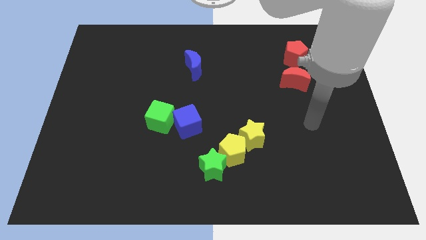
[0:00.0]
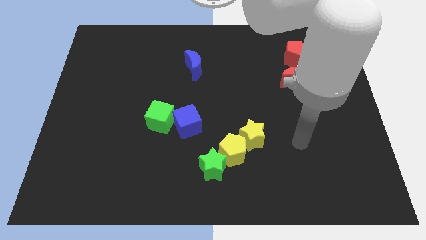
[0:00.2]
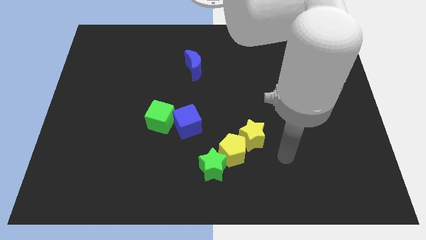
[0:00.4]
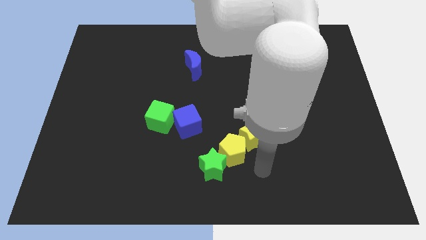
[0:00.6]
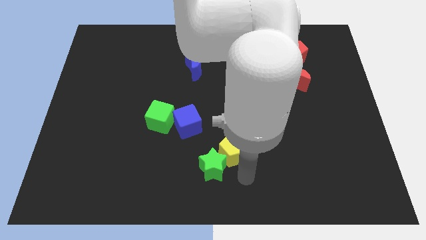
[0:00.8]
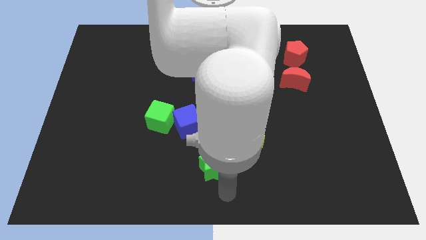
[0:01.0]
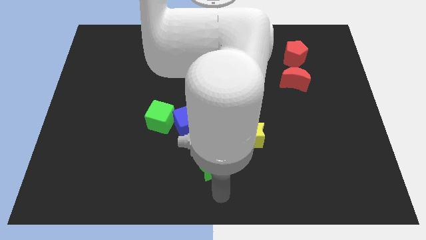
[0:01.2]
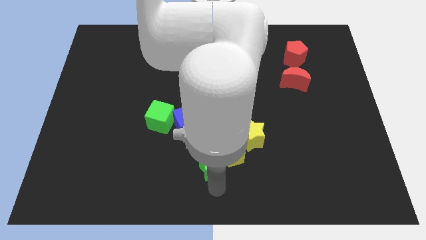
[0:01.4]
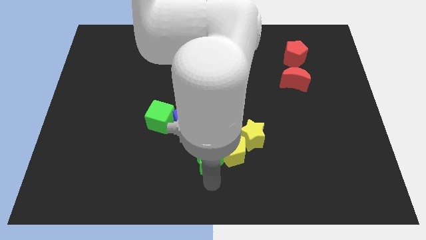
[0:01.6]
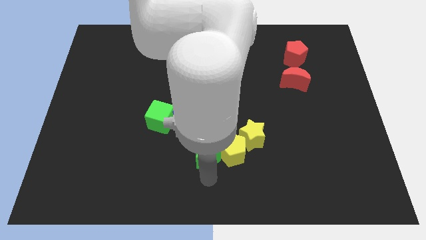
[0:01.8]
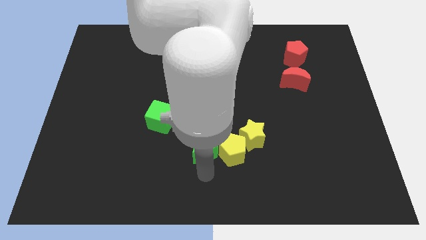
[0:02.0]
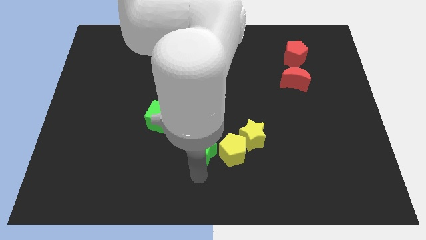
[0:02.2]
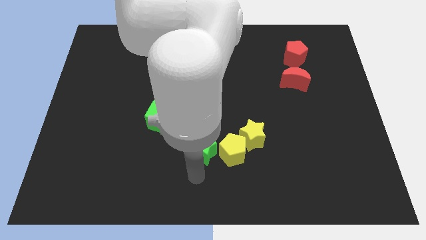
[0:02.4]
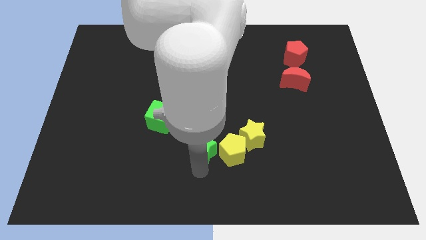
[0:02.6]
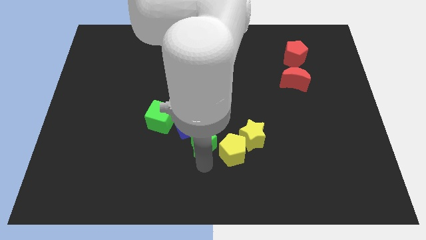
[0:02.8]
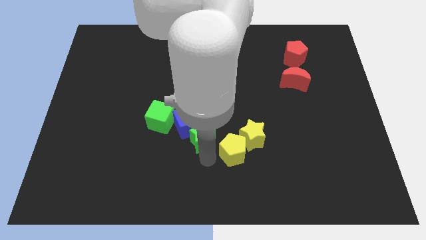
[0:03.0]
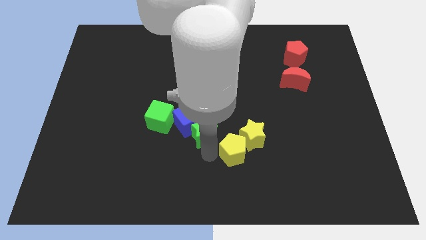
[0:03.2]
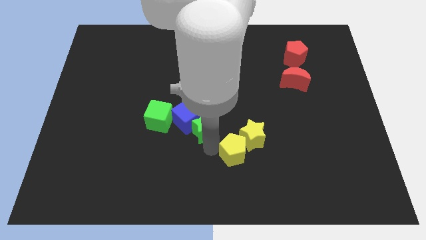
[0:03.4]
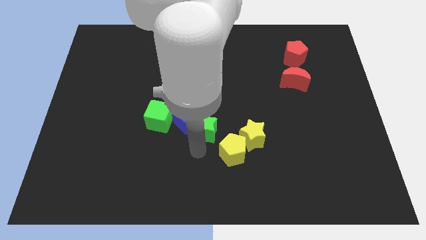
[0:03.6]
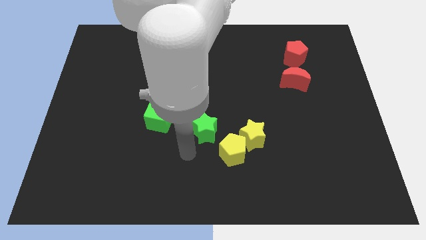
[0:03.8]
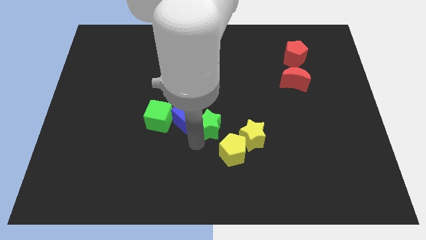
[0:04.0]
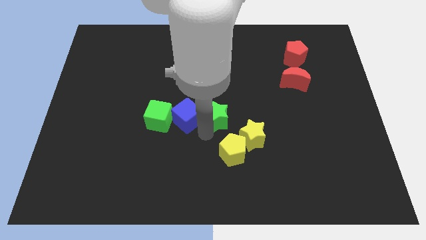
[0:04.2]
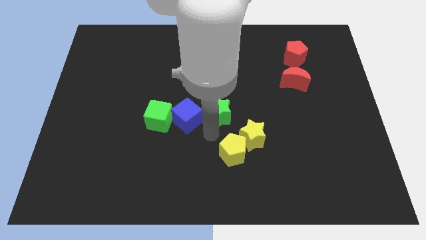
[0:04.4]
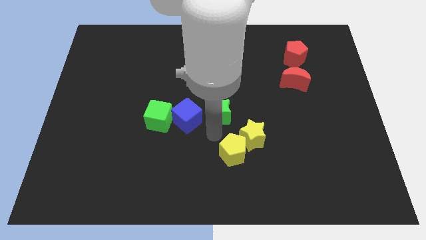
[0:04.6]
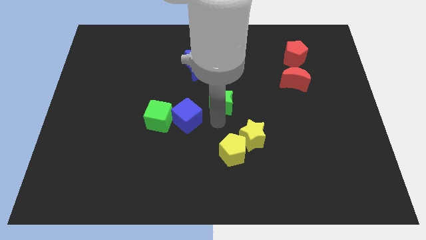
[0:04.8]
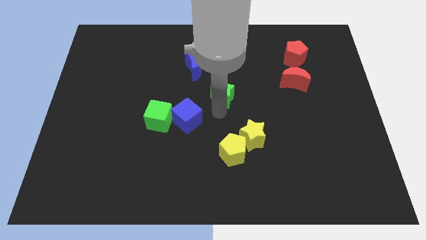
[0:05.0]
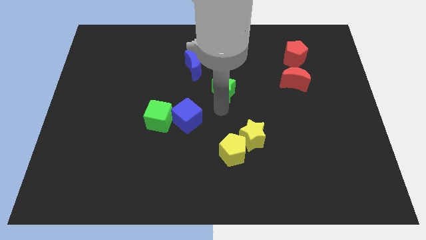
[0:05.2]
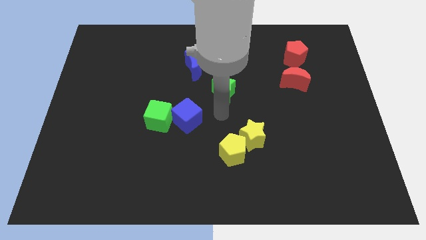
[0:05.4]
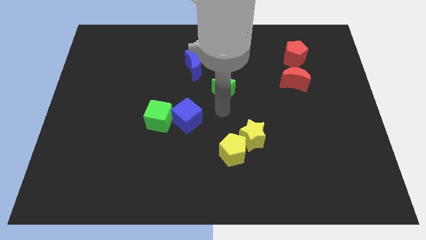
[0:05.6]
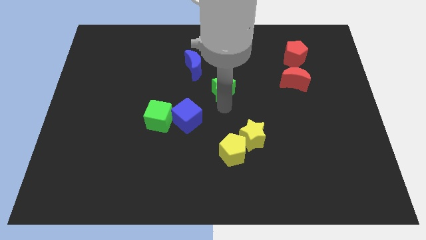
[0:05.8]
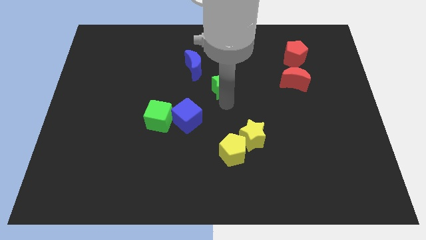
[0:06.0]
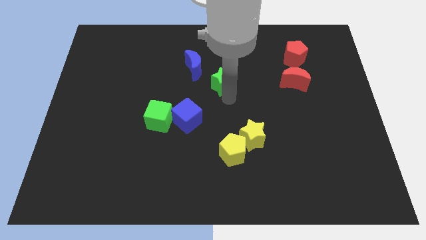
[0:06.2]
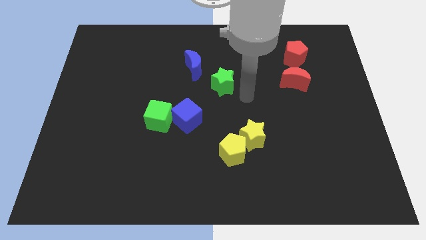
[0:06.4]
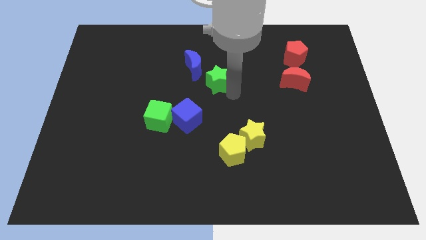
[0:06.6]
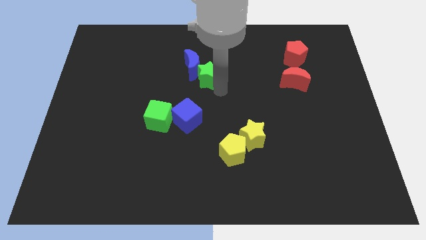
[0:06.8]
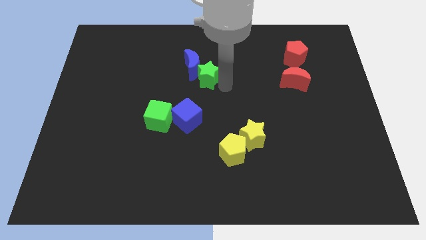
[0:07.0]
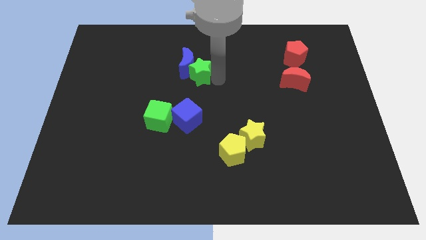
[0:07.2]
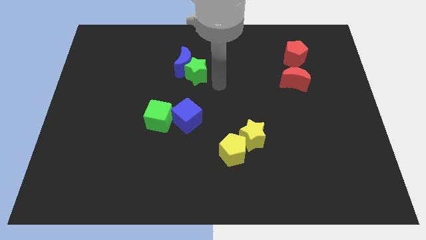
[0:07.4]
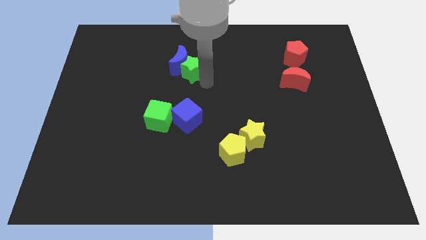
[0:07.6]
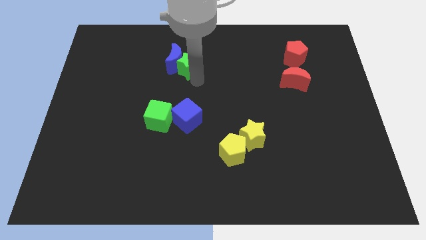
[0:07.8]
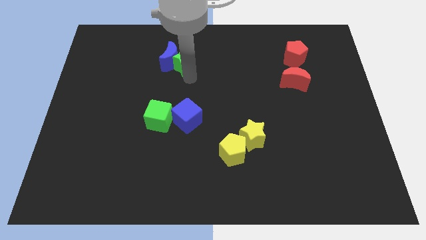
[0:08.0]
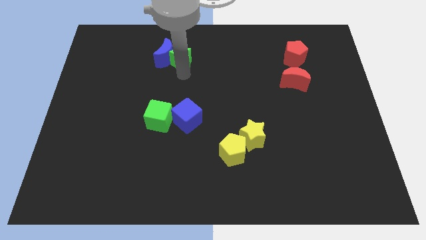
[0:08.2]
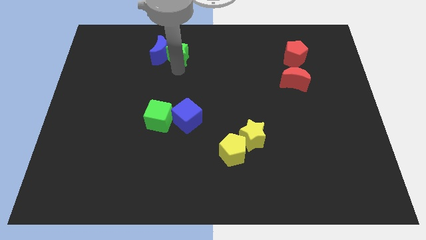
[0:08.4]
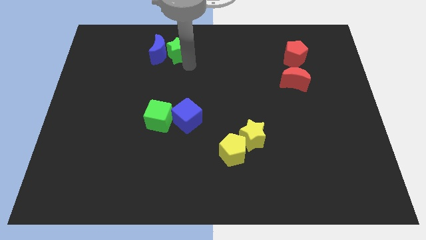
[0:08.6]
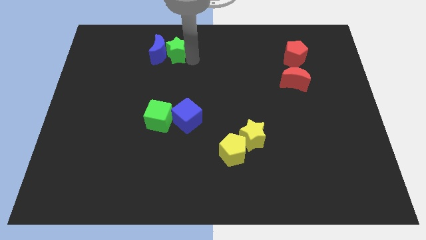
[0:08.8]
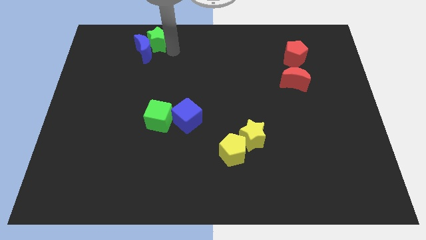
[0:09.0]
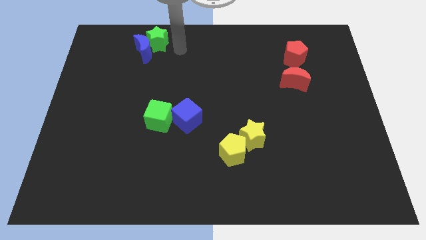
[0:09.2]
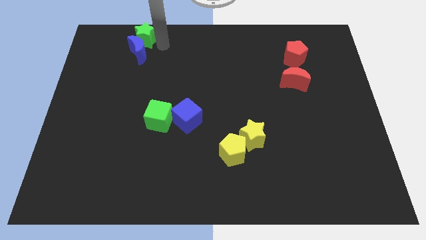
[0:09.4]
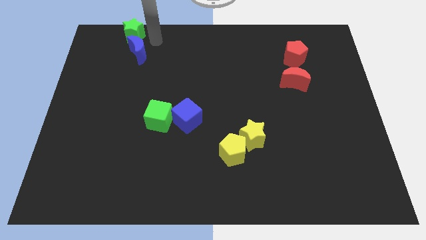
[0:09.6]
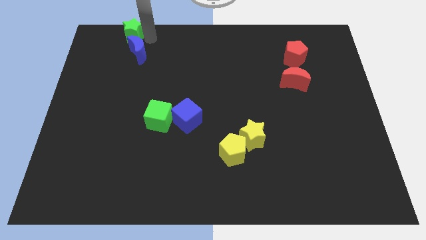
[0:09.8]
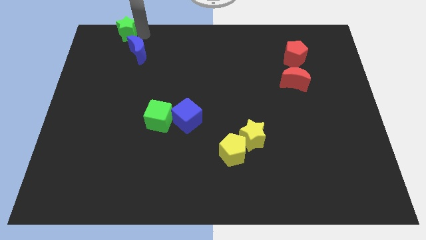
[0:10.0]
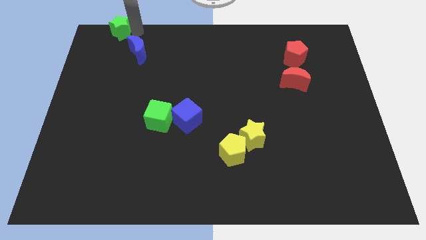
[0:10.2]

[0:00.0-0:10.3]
push the green star to the top left corner

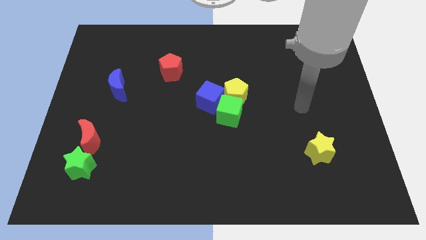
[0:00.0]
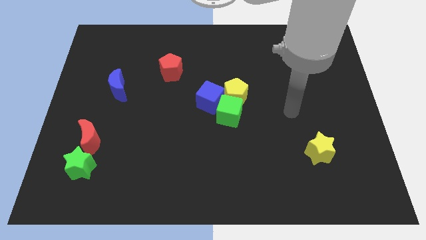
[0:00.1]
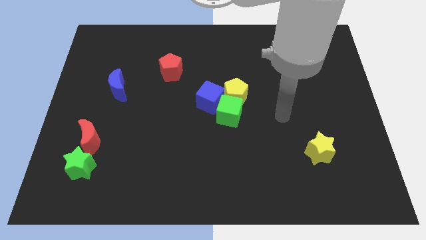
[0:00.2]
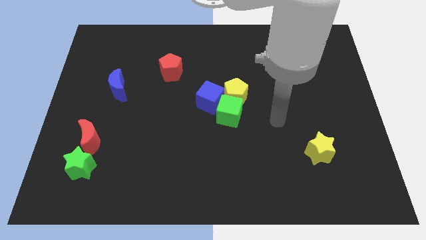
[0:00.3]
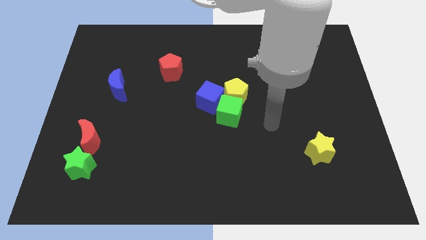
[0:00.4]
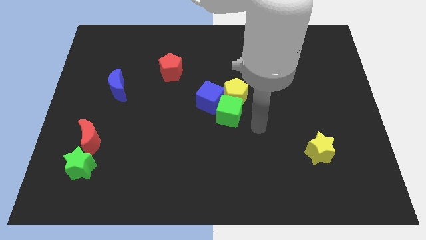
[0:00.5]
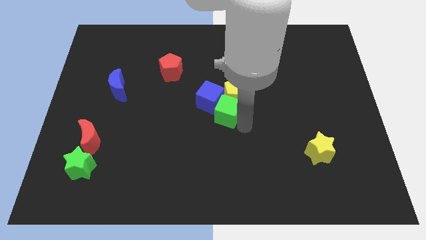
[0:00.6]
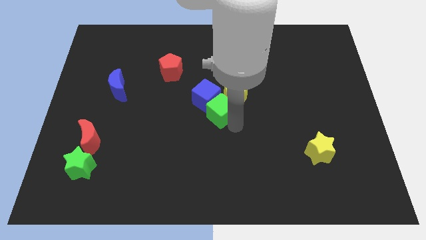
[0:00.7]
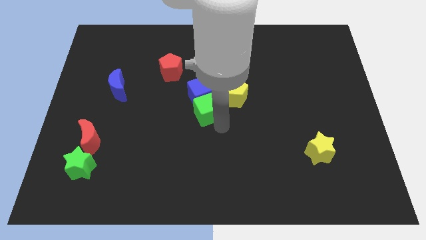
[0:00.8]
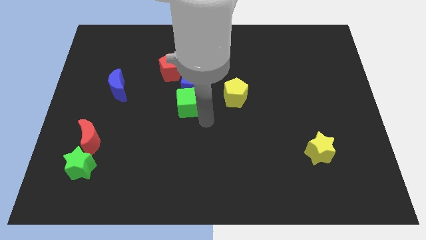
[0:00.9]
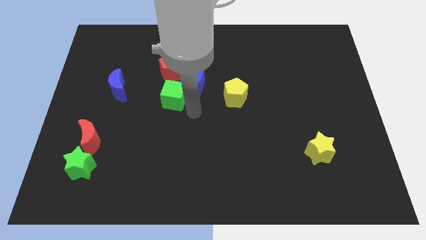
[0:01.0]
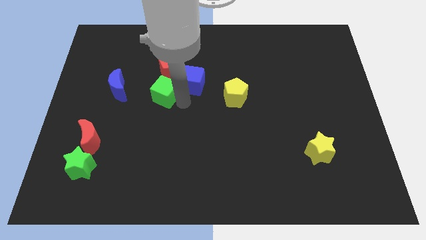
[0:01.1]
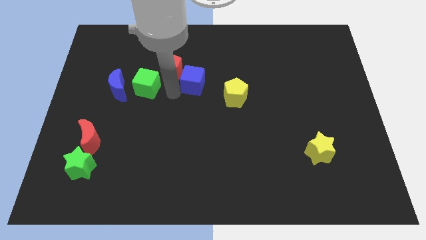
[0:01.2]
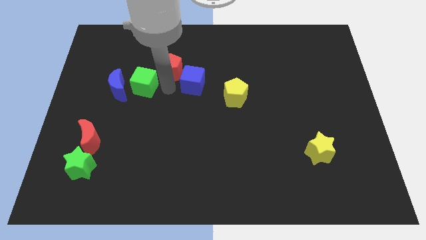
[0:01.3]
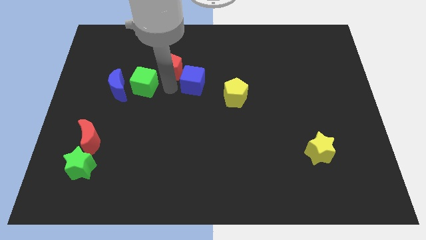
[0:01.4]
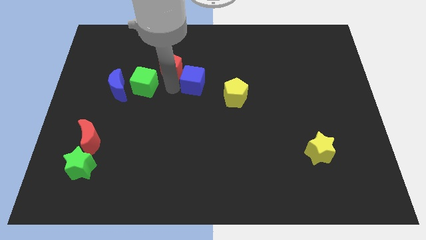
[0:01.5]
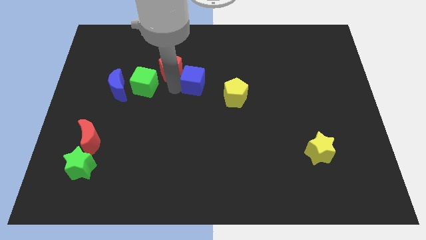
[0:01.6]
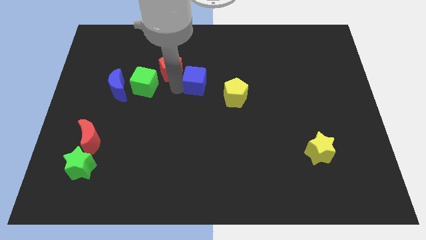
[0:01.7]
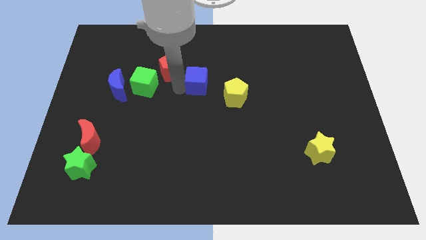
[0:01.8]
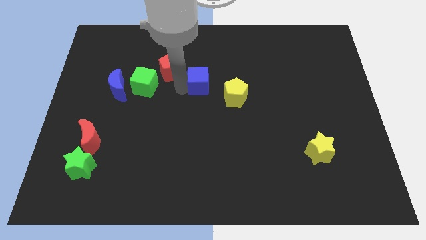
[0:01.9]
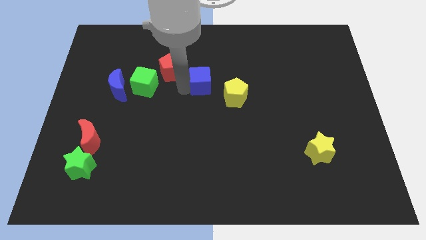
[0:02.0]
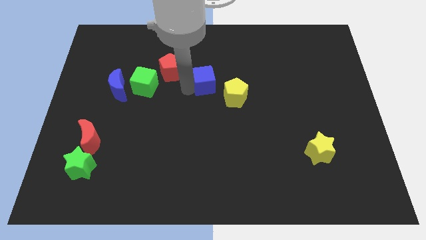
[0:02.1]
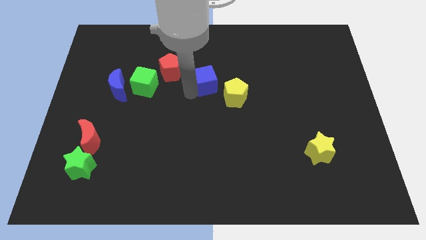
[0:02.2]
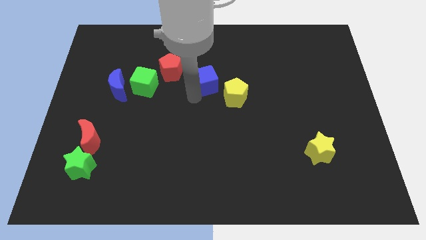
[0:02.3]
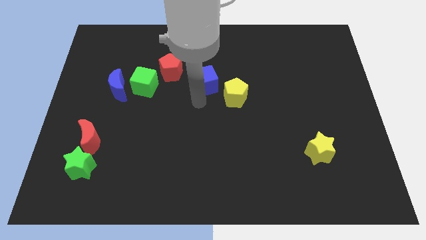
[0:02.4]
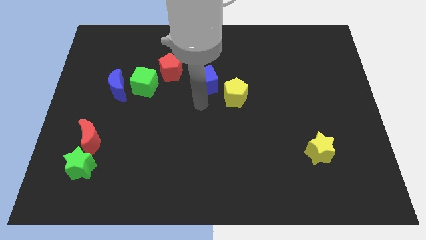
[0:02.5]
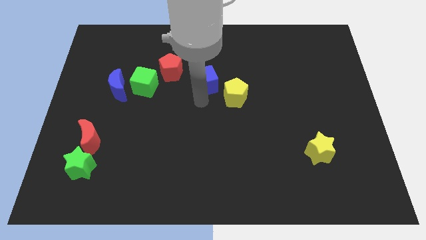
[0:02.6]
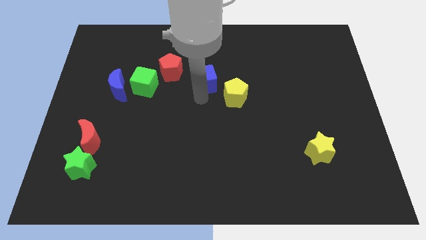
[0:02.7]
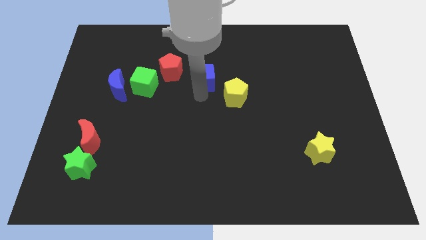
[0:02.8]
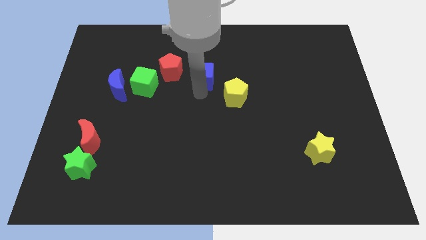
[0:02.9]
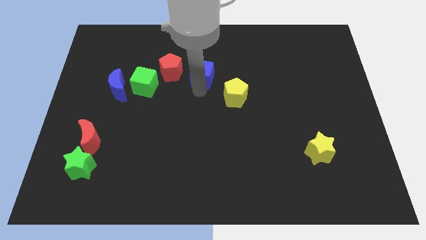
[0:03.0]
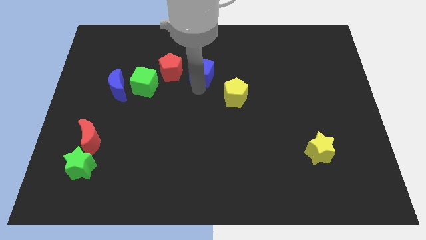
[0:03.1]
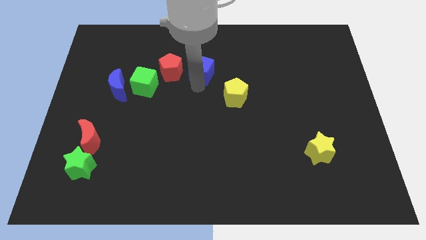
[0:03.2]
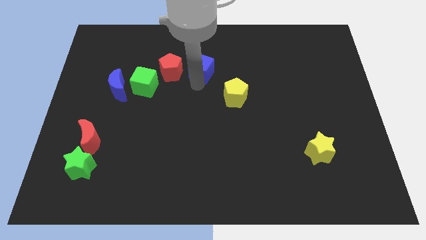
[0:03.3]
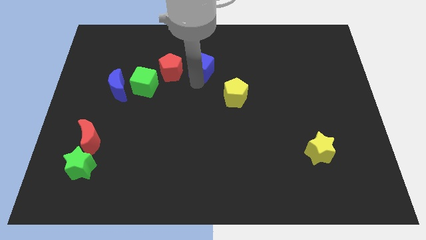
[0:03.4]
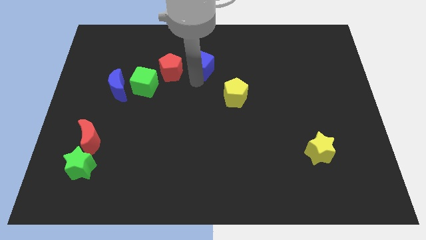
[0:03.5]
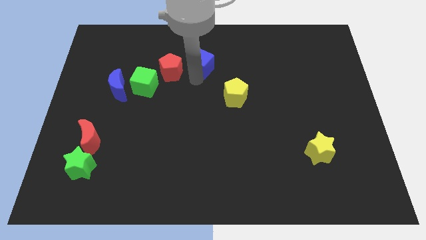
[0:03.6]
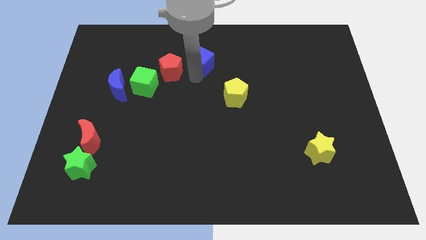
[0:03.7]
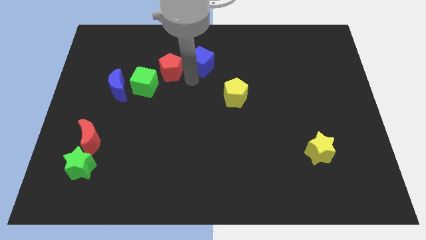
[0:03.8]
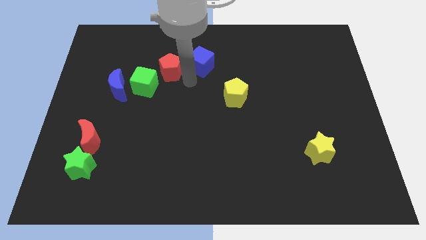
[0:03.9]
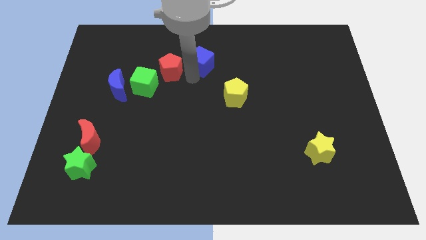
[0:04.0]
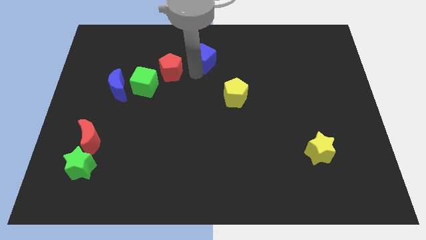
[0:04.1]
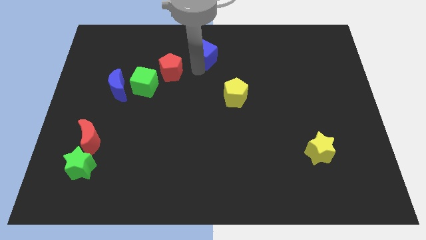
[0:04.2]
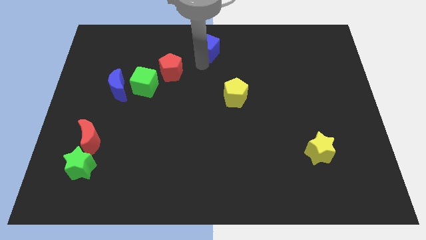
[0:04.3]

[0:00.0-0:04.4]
put the blue cube to the top side
